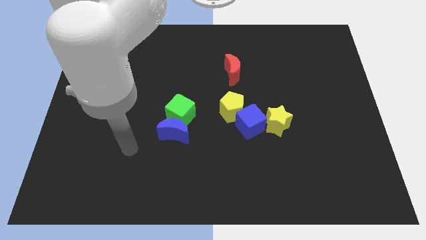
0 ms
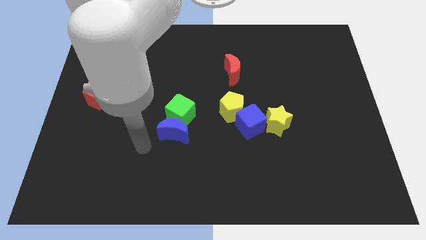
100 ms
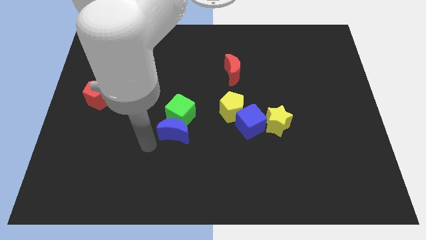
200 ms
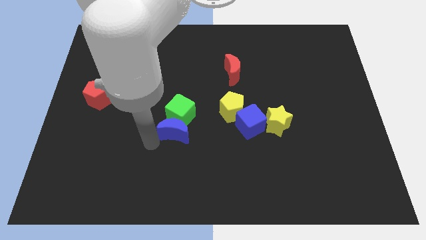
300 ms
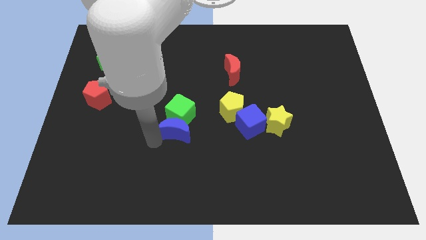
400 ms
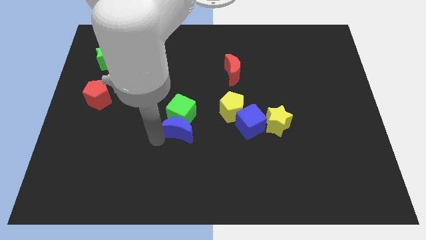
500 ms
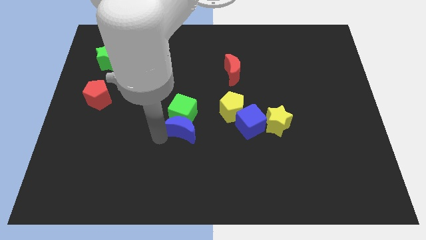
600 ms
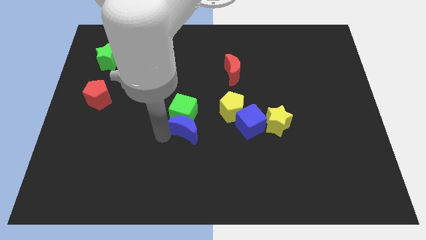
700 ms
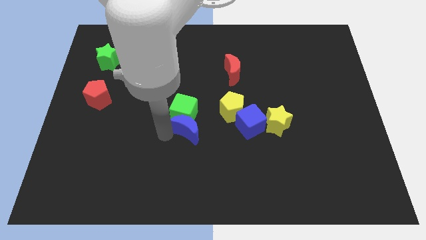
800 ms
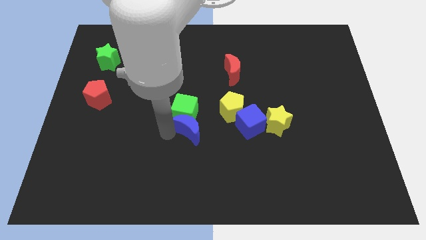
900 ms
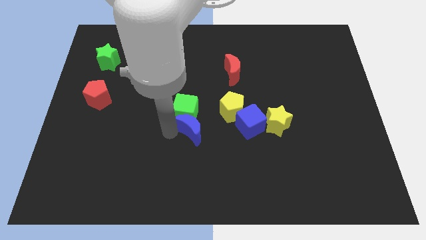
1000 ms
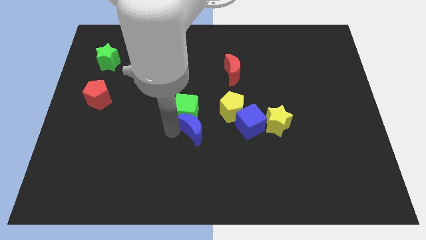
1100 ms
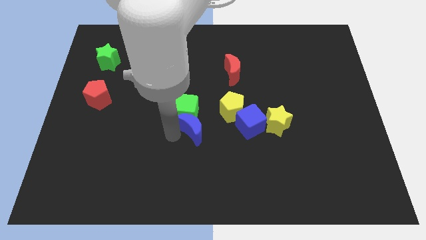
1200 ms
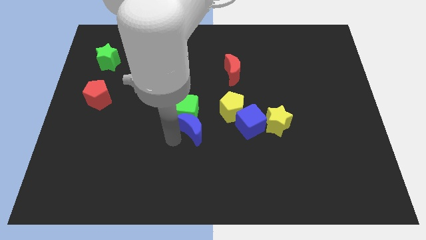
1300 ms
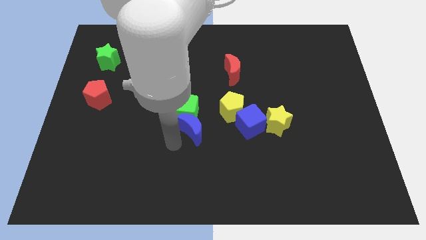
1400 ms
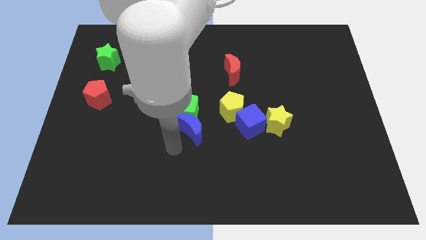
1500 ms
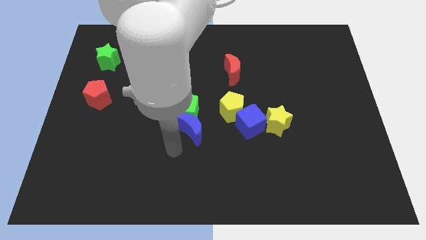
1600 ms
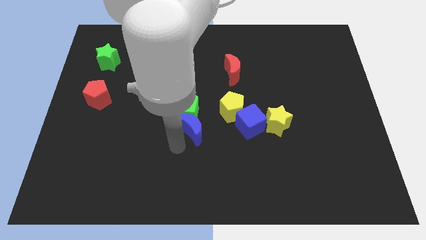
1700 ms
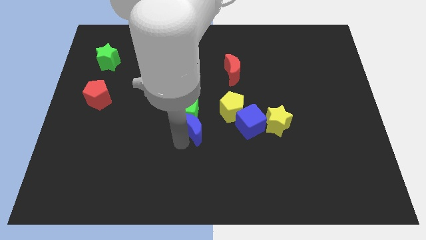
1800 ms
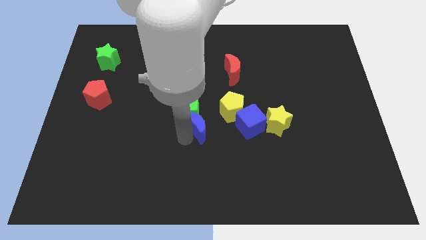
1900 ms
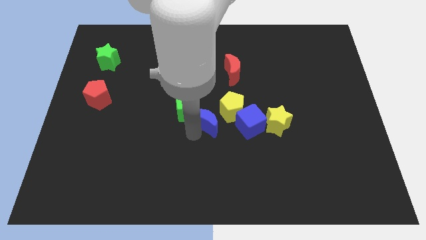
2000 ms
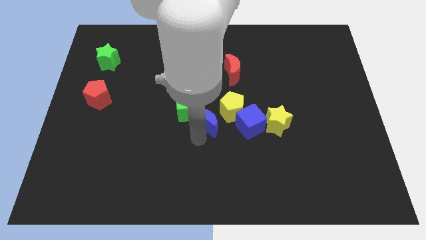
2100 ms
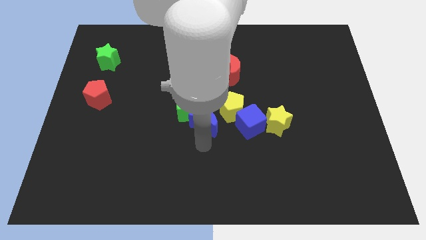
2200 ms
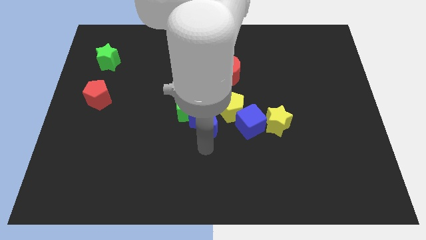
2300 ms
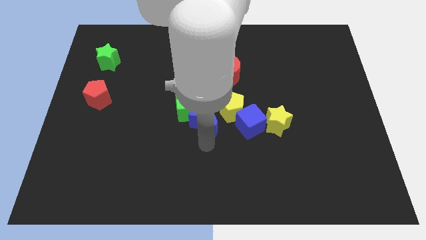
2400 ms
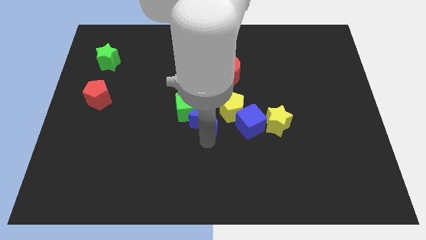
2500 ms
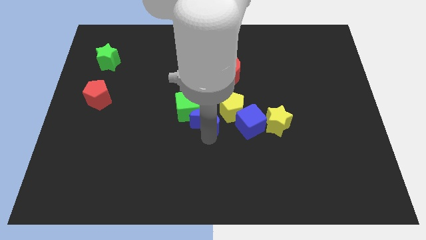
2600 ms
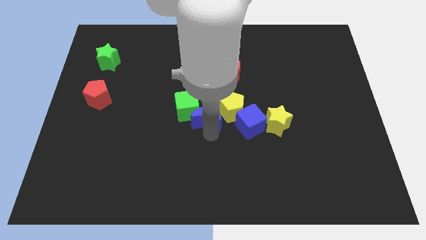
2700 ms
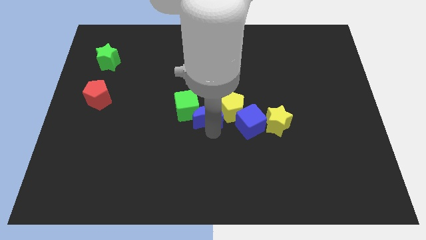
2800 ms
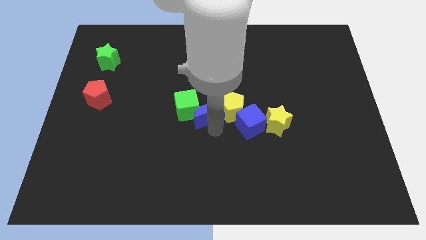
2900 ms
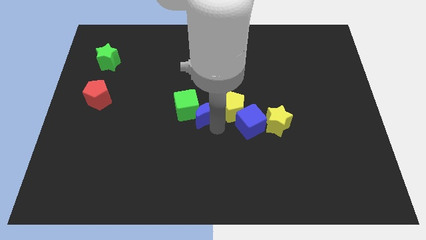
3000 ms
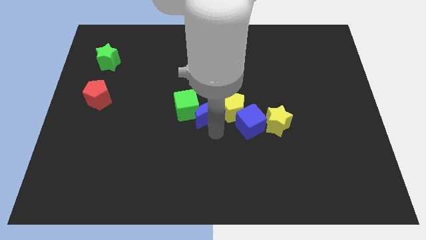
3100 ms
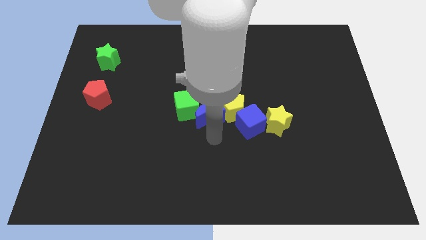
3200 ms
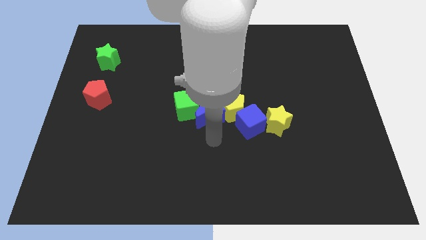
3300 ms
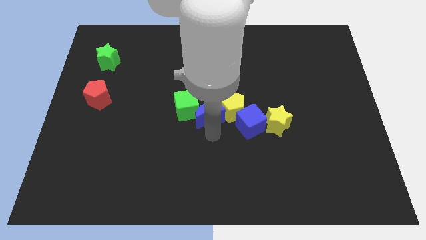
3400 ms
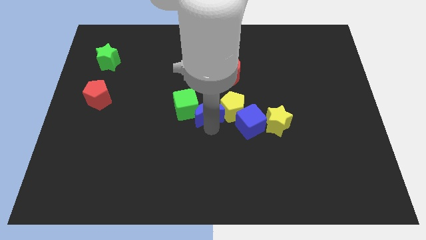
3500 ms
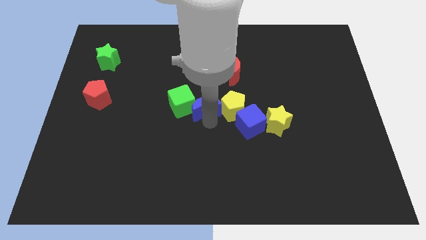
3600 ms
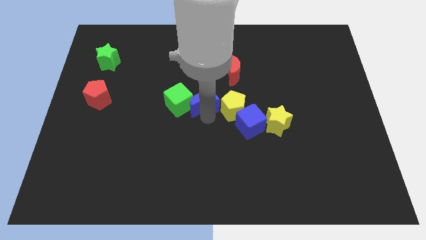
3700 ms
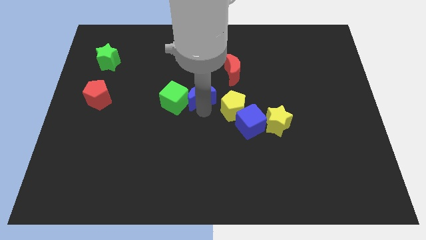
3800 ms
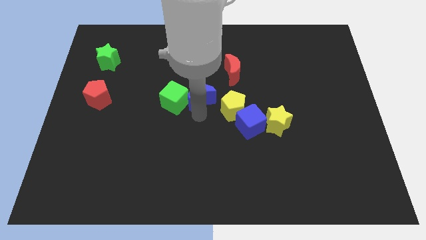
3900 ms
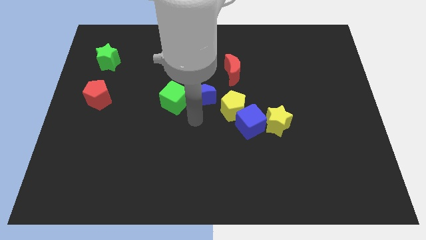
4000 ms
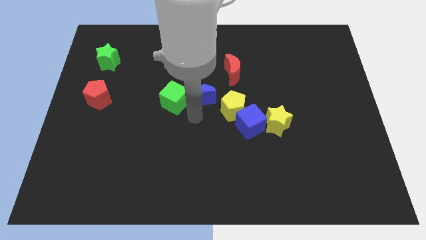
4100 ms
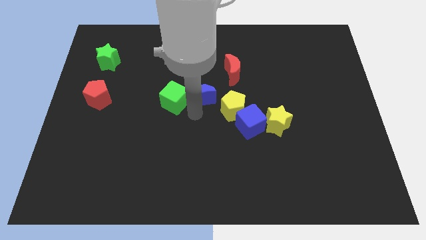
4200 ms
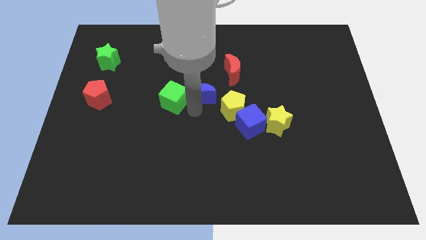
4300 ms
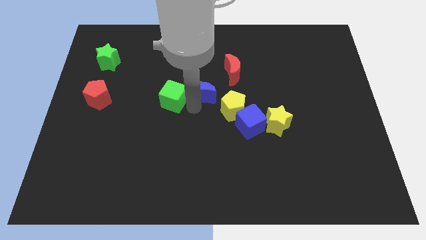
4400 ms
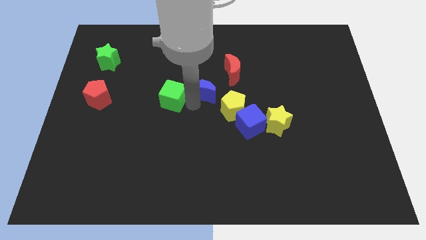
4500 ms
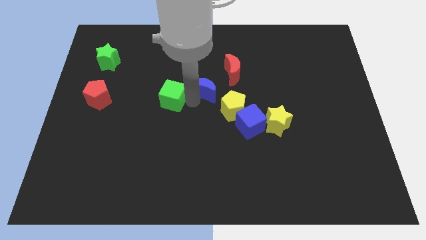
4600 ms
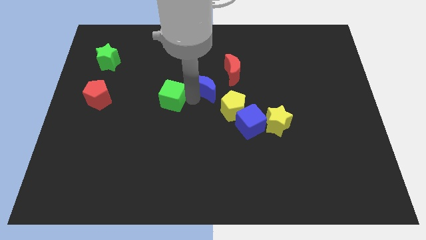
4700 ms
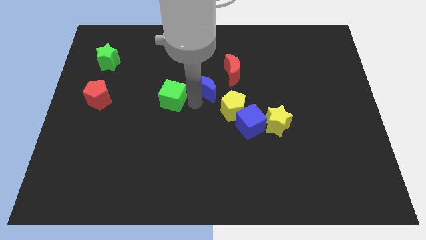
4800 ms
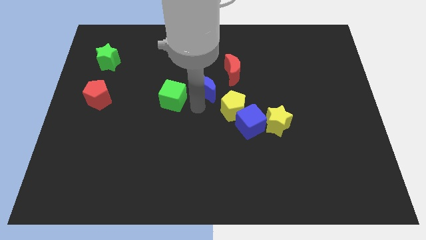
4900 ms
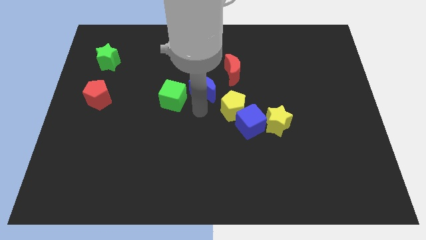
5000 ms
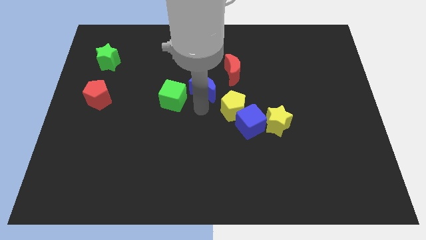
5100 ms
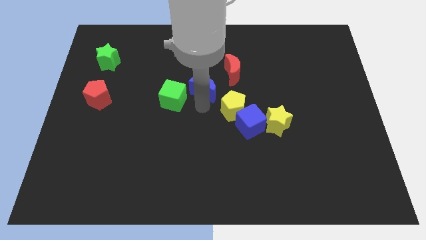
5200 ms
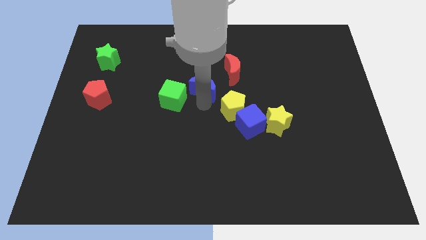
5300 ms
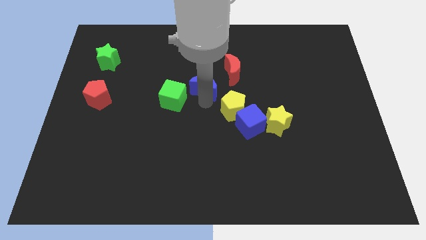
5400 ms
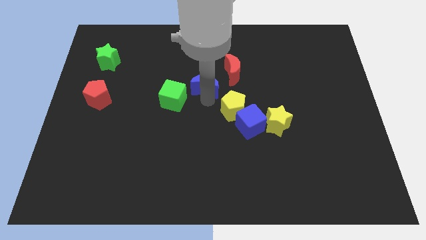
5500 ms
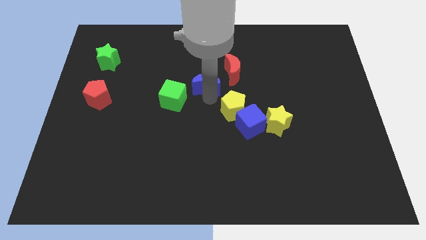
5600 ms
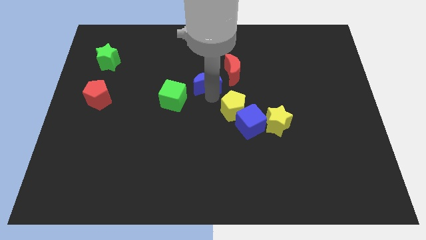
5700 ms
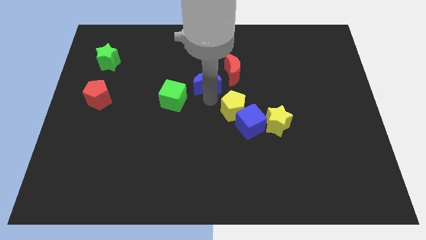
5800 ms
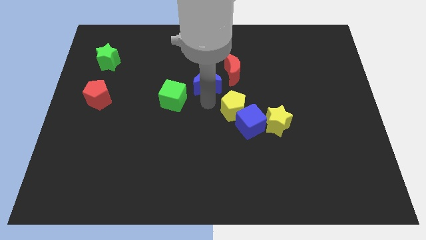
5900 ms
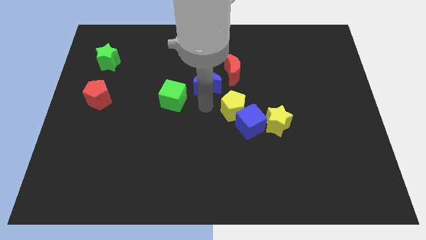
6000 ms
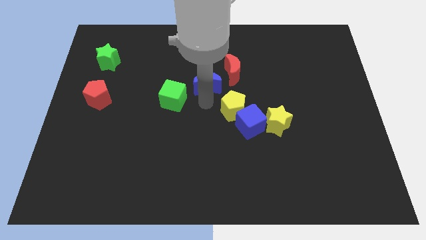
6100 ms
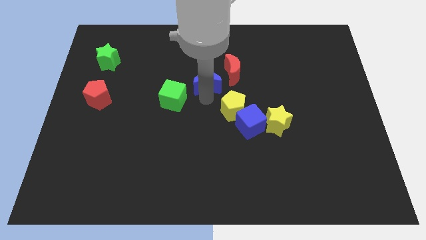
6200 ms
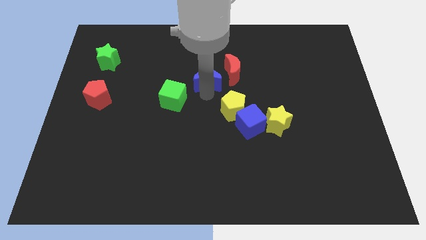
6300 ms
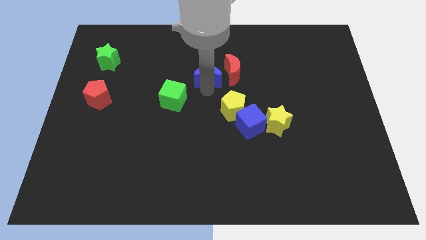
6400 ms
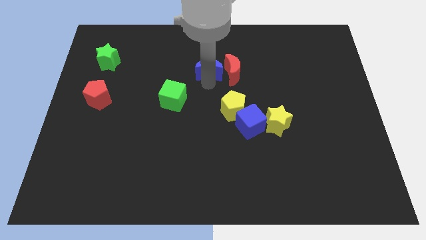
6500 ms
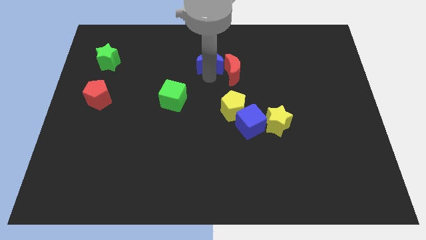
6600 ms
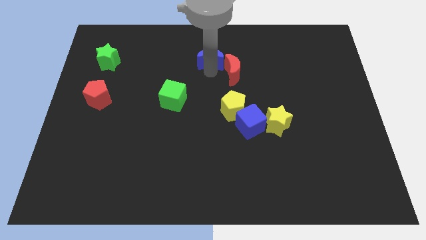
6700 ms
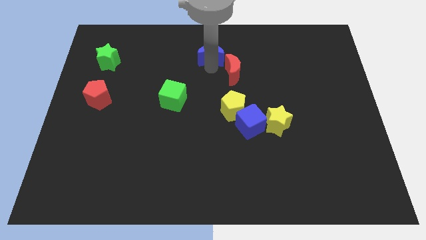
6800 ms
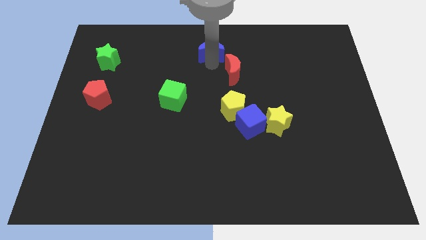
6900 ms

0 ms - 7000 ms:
put the blue moon to the top
